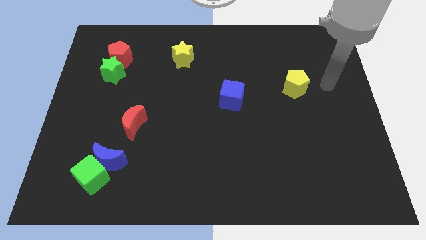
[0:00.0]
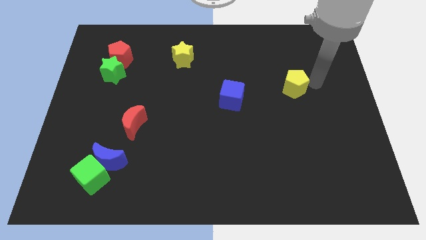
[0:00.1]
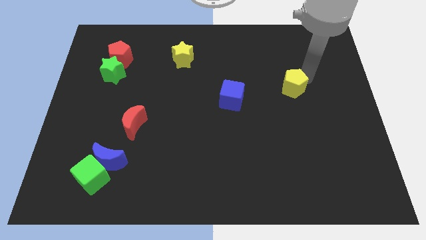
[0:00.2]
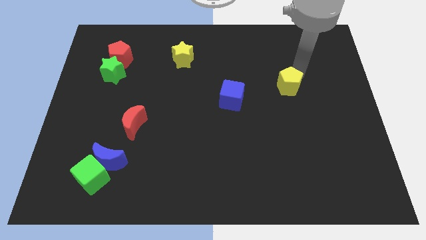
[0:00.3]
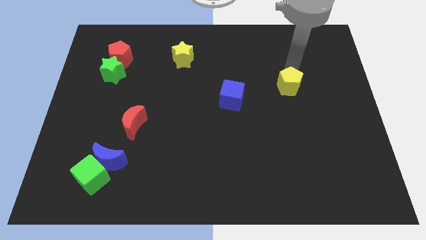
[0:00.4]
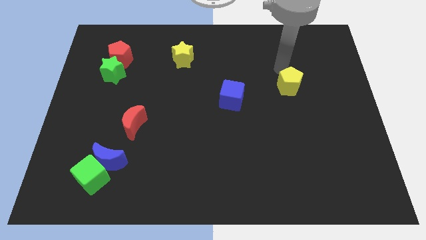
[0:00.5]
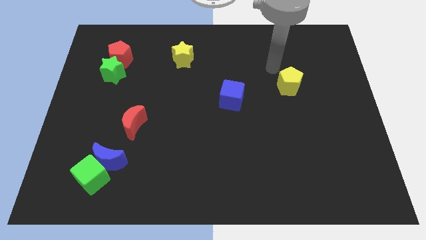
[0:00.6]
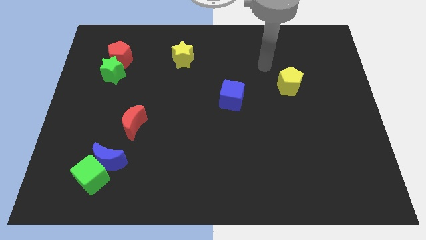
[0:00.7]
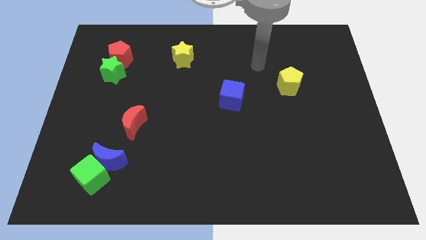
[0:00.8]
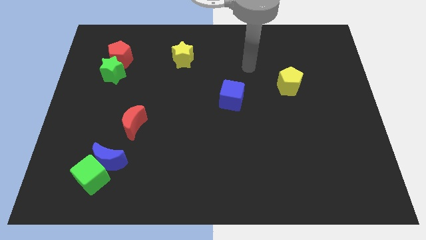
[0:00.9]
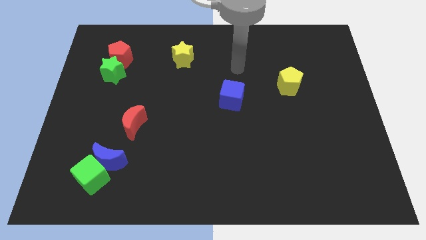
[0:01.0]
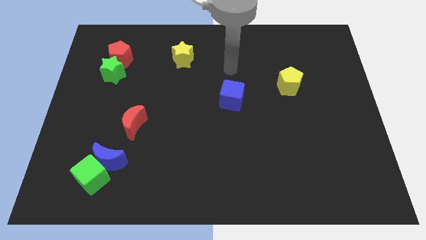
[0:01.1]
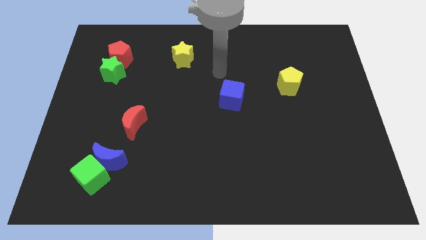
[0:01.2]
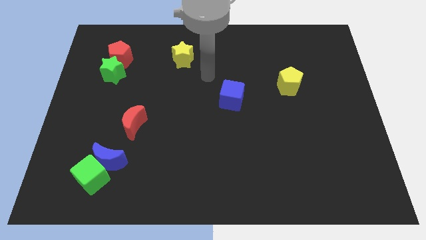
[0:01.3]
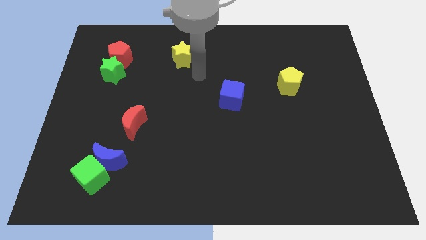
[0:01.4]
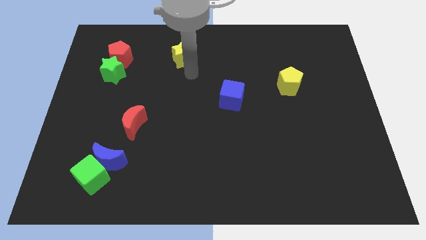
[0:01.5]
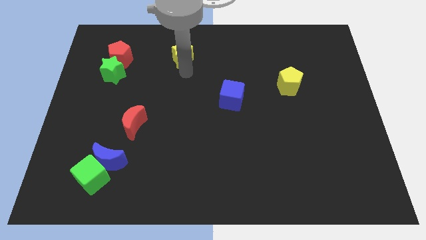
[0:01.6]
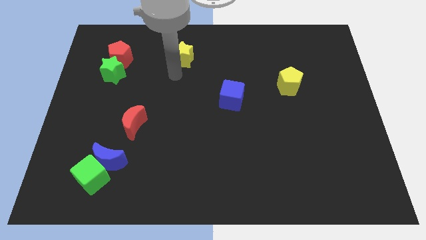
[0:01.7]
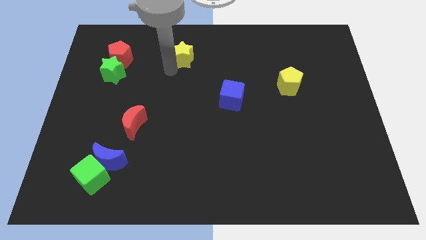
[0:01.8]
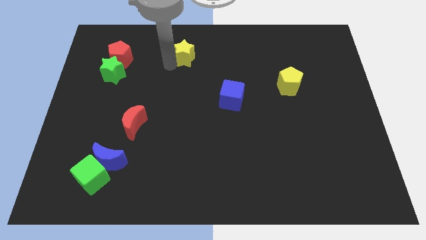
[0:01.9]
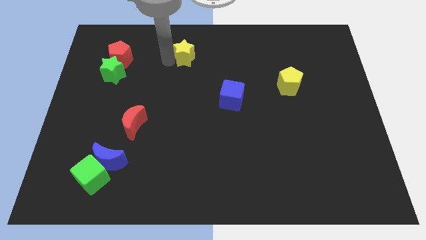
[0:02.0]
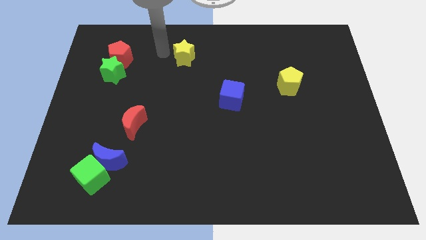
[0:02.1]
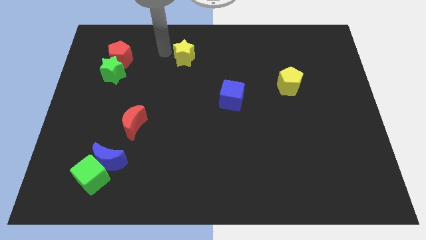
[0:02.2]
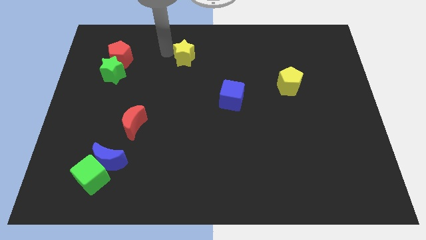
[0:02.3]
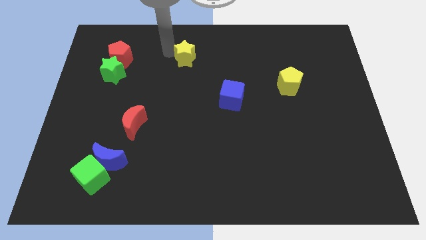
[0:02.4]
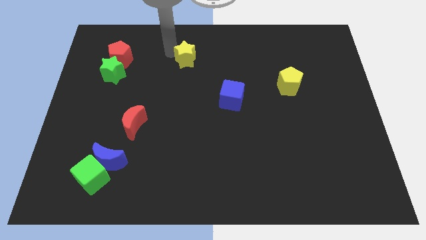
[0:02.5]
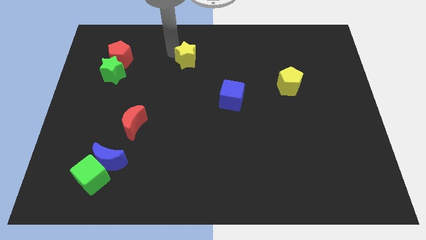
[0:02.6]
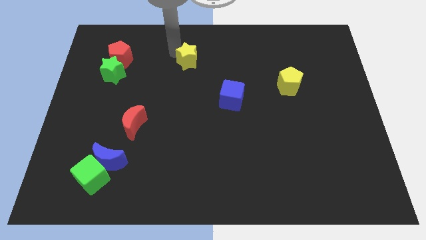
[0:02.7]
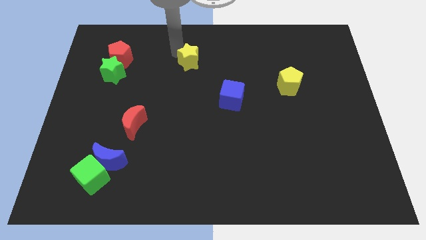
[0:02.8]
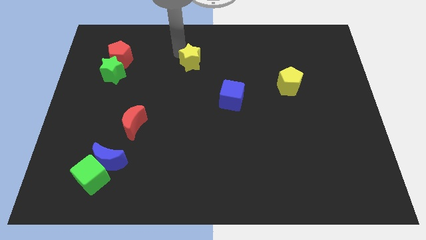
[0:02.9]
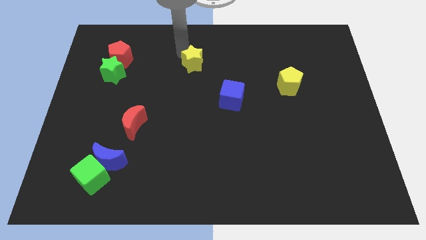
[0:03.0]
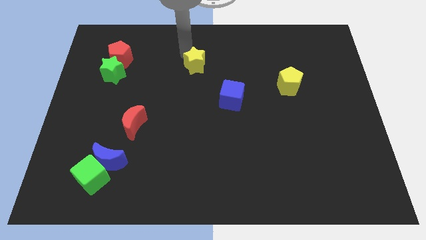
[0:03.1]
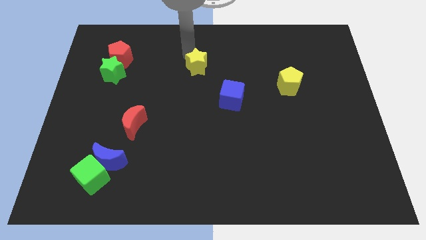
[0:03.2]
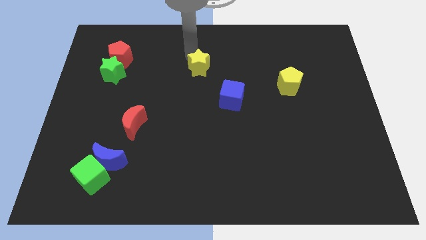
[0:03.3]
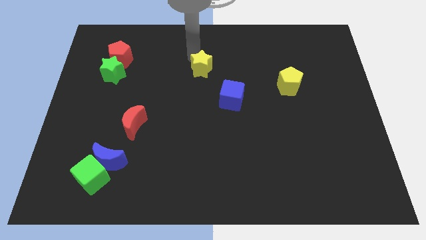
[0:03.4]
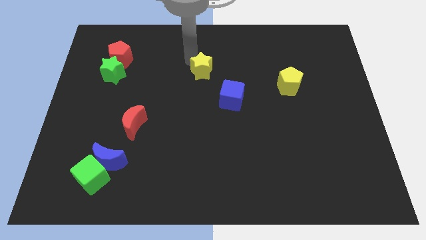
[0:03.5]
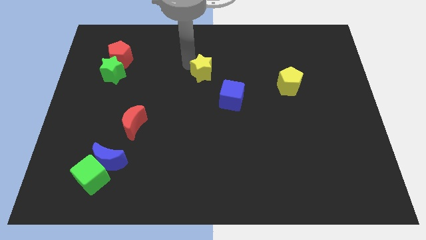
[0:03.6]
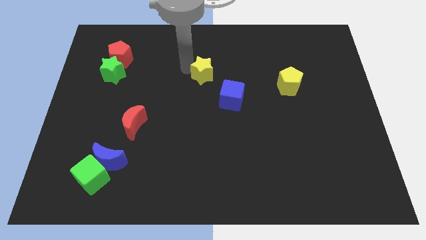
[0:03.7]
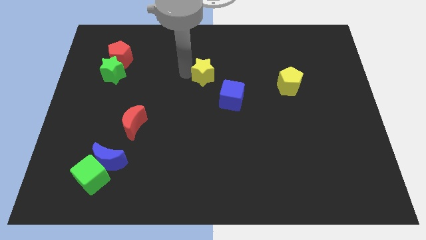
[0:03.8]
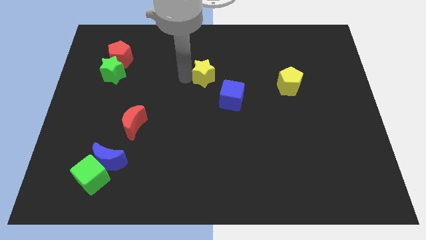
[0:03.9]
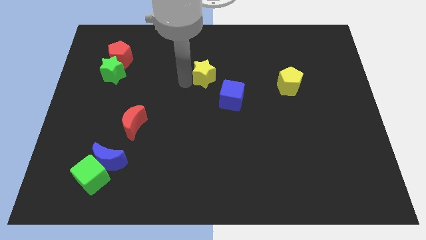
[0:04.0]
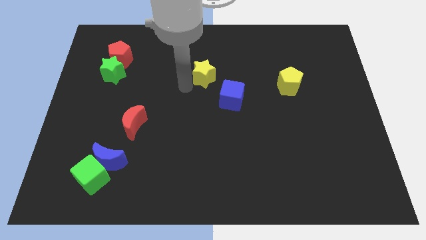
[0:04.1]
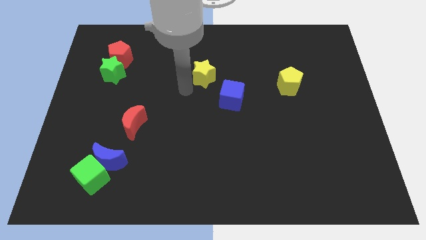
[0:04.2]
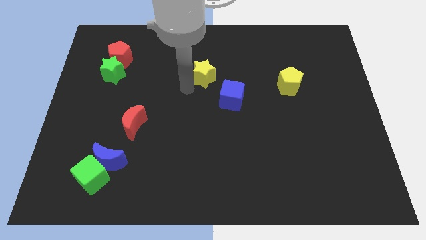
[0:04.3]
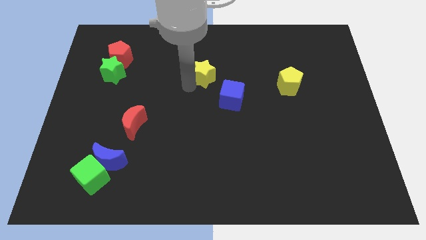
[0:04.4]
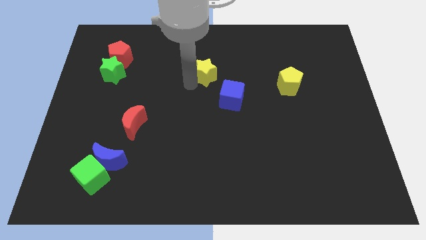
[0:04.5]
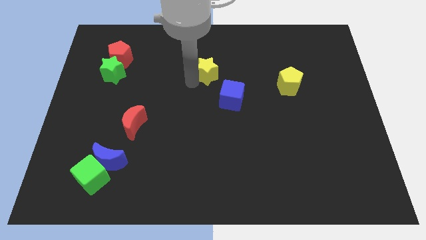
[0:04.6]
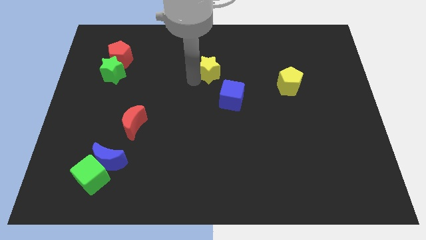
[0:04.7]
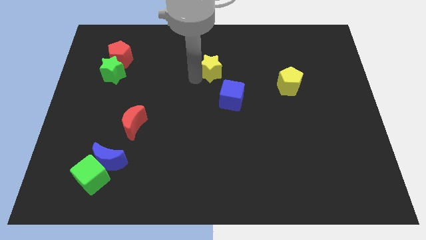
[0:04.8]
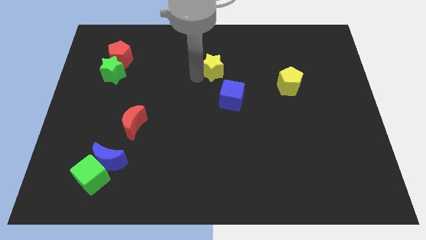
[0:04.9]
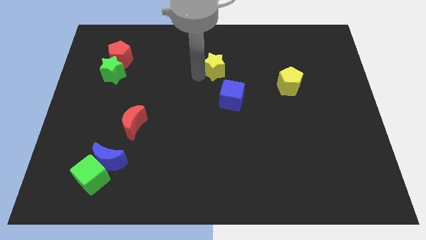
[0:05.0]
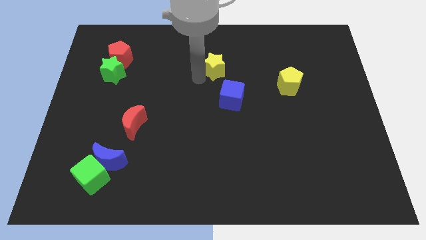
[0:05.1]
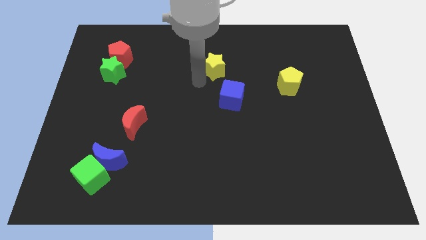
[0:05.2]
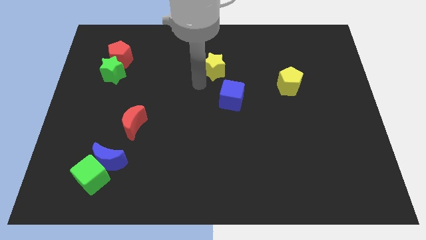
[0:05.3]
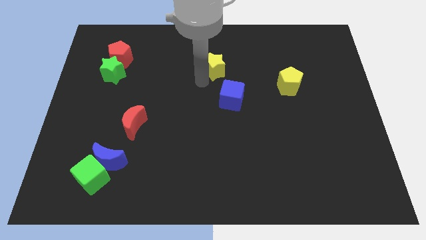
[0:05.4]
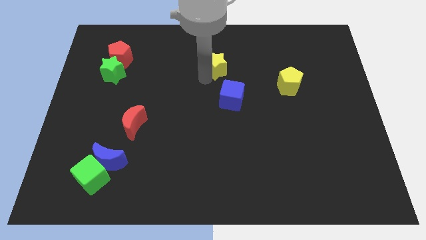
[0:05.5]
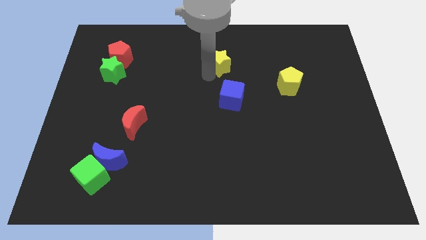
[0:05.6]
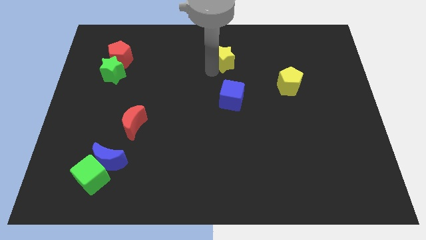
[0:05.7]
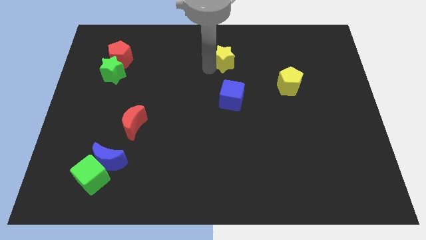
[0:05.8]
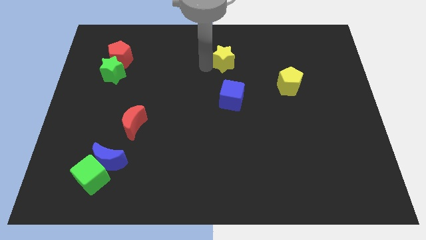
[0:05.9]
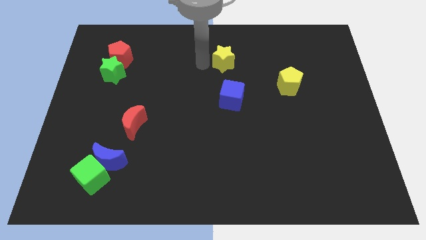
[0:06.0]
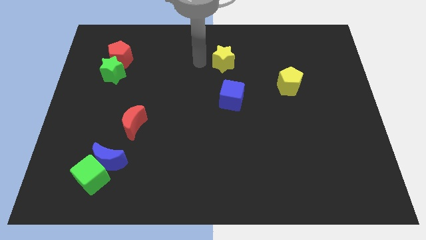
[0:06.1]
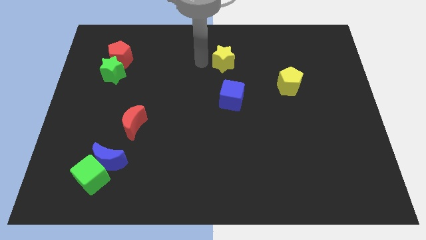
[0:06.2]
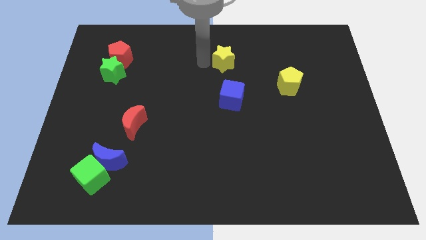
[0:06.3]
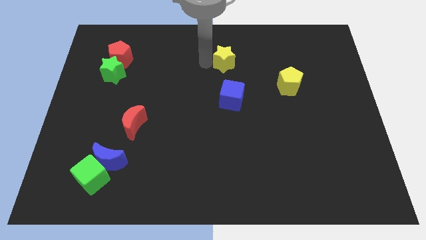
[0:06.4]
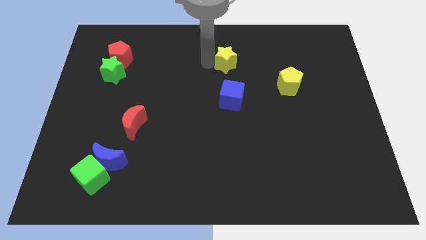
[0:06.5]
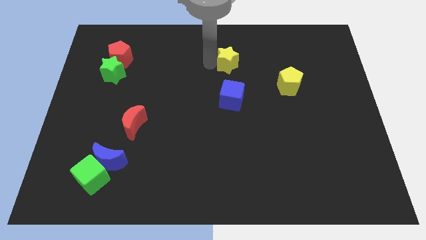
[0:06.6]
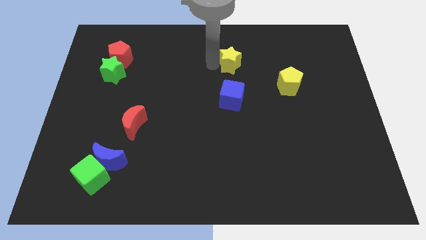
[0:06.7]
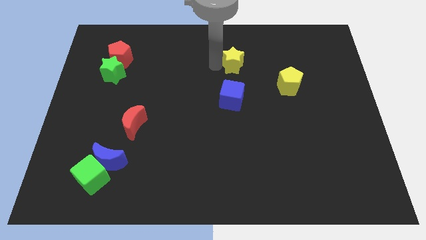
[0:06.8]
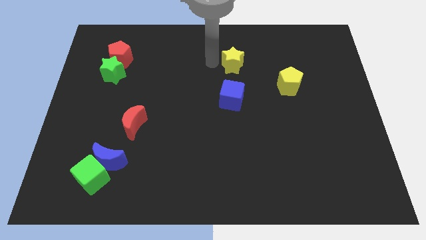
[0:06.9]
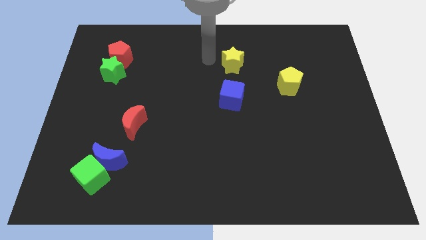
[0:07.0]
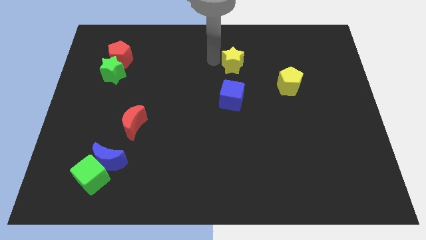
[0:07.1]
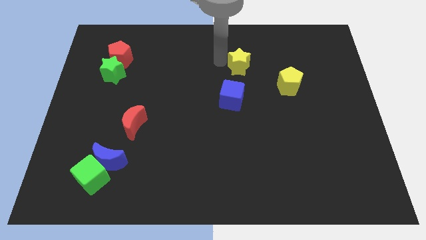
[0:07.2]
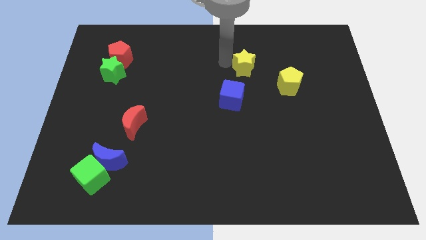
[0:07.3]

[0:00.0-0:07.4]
slide the yellow star diagonally up and to the left of the yellow pentagon

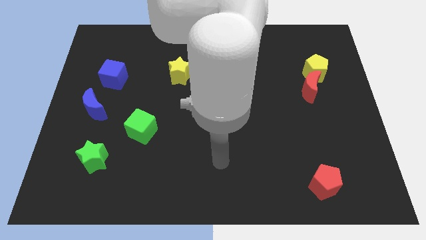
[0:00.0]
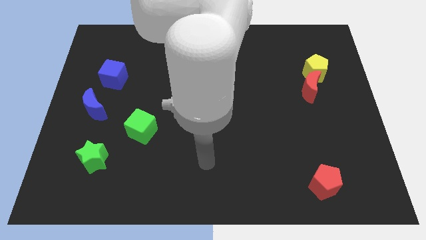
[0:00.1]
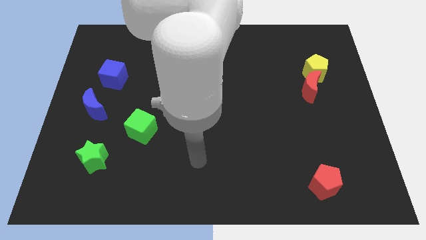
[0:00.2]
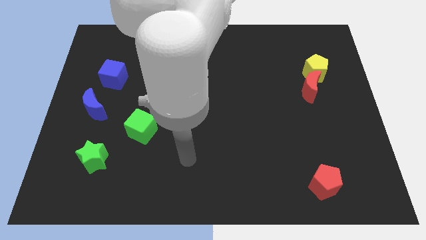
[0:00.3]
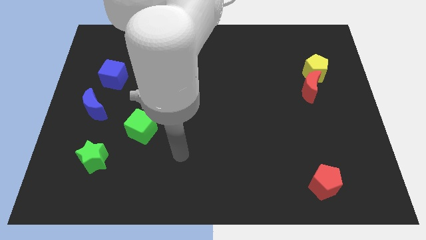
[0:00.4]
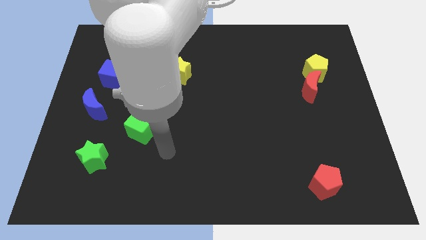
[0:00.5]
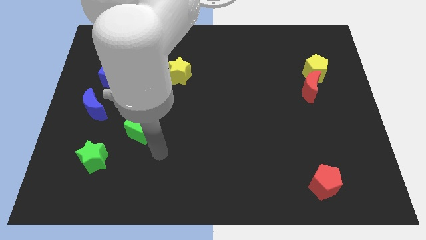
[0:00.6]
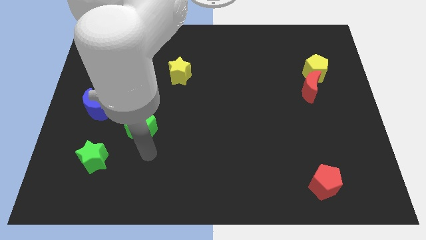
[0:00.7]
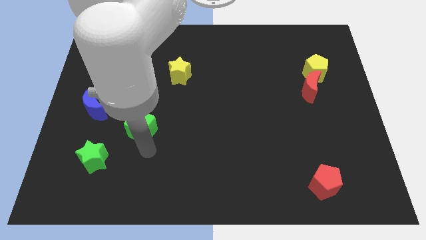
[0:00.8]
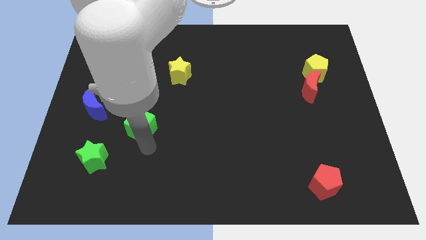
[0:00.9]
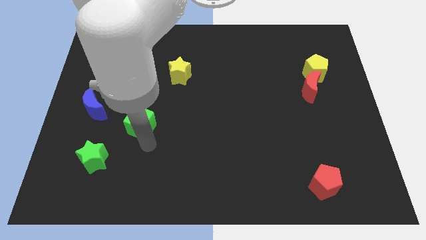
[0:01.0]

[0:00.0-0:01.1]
put the green cube right of the blue moon
